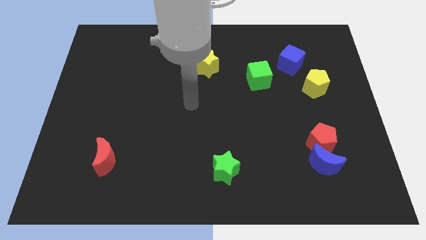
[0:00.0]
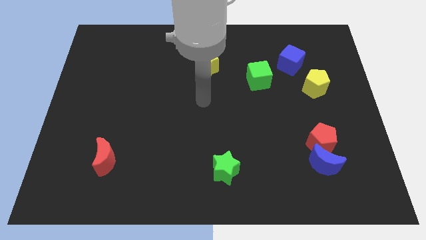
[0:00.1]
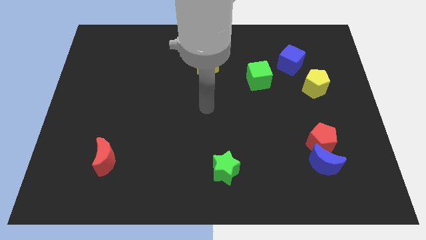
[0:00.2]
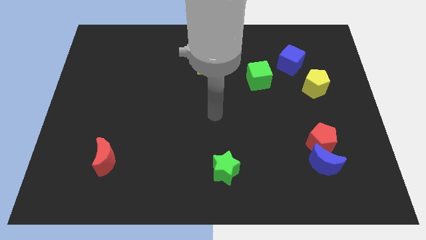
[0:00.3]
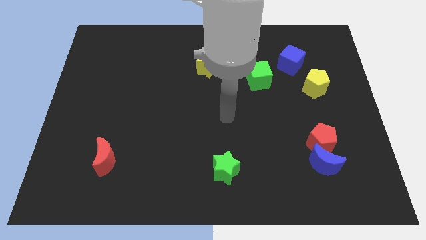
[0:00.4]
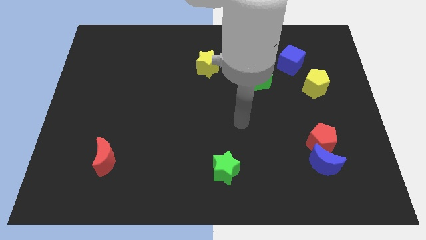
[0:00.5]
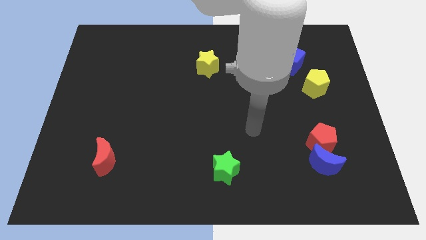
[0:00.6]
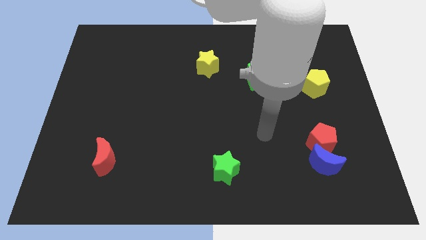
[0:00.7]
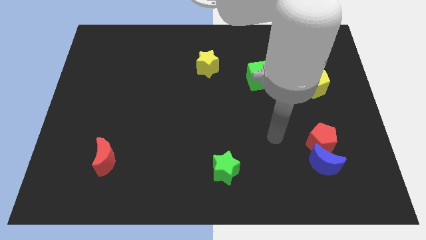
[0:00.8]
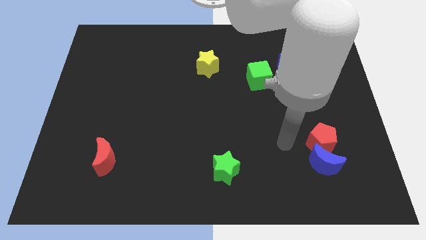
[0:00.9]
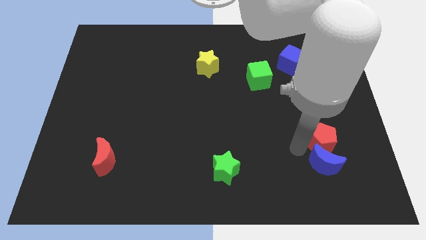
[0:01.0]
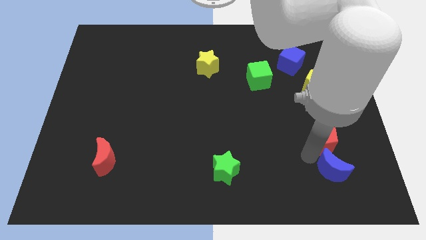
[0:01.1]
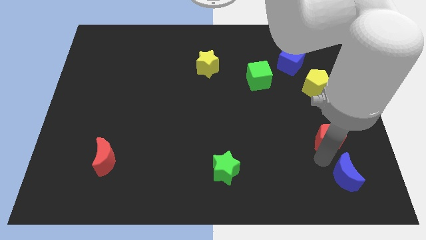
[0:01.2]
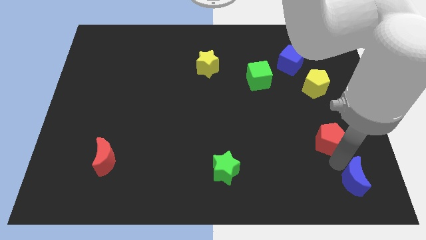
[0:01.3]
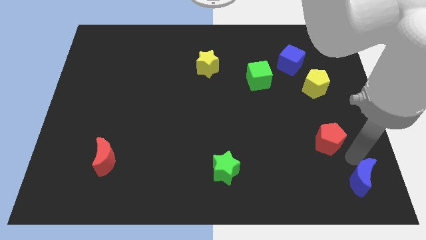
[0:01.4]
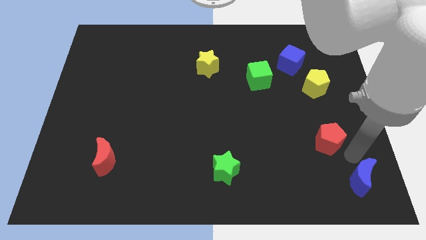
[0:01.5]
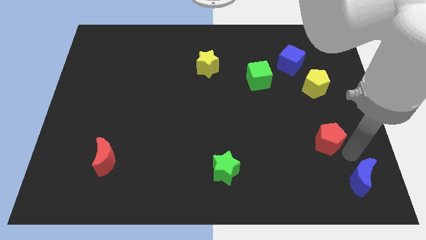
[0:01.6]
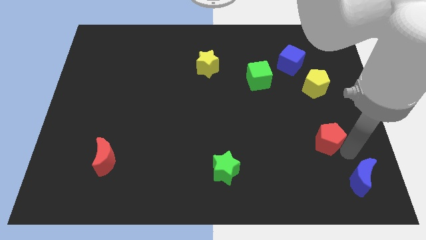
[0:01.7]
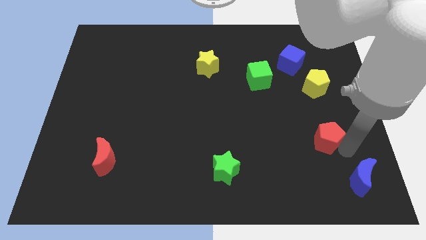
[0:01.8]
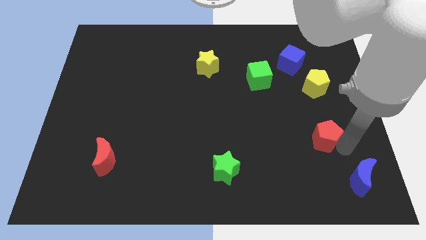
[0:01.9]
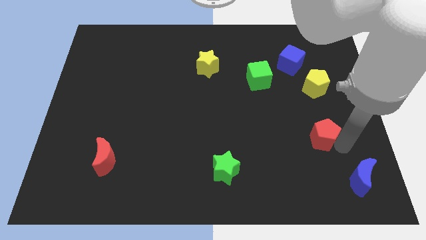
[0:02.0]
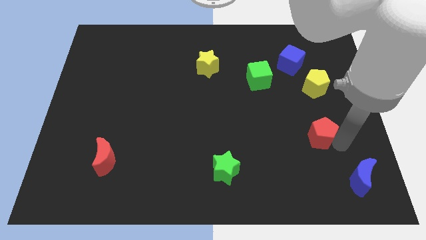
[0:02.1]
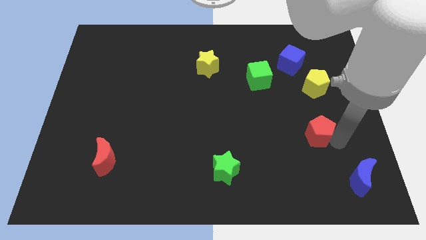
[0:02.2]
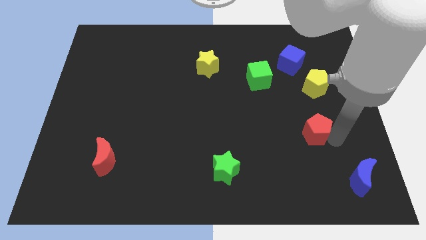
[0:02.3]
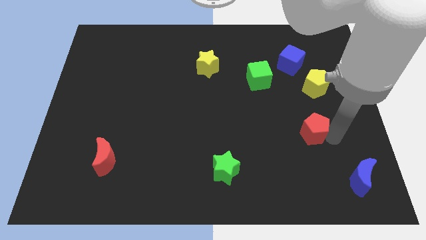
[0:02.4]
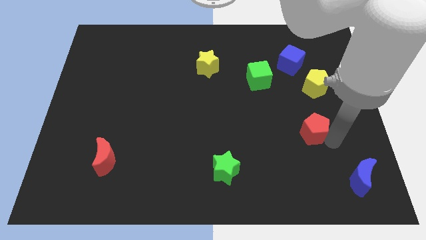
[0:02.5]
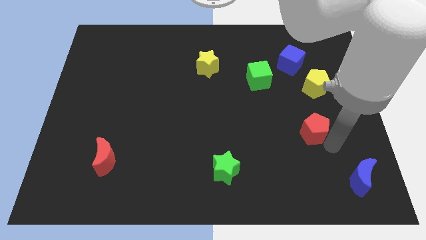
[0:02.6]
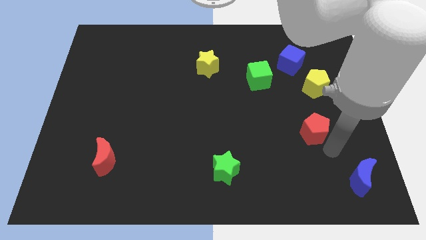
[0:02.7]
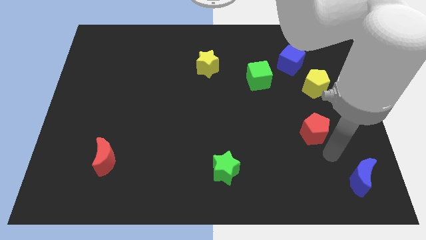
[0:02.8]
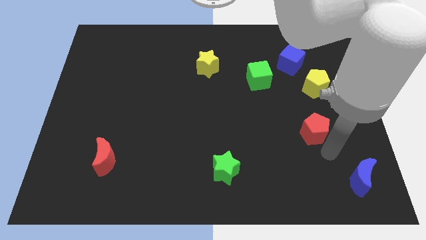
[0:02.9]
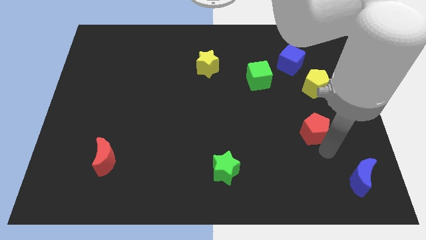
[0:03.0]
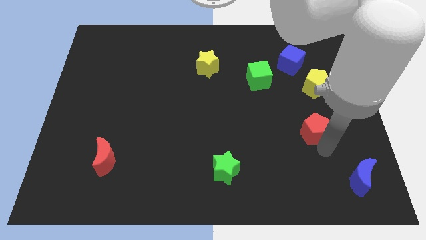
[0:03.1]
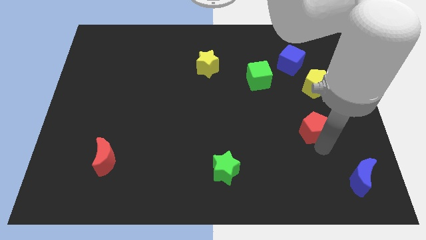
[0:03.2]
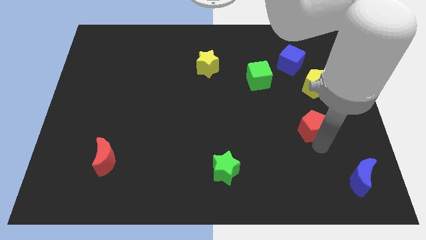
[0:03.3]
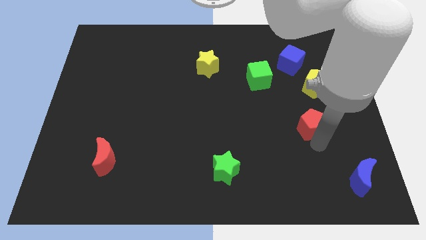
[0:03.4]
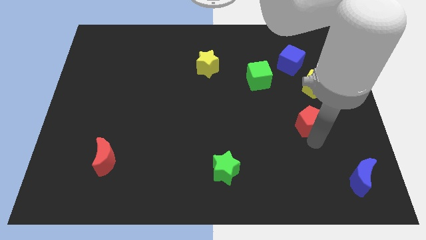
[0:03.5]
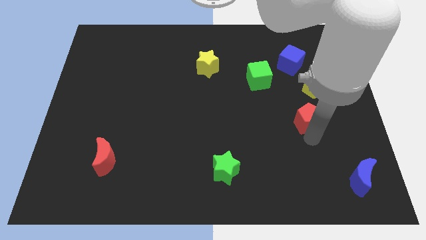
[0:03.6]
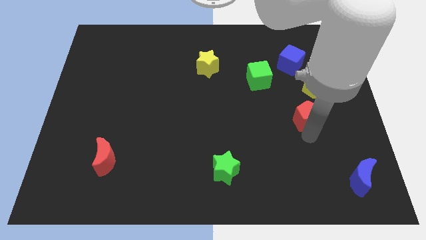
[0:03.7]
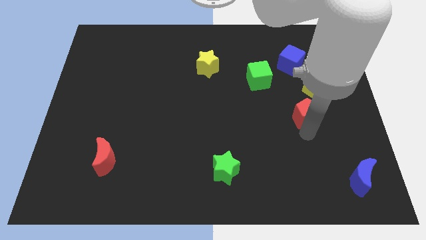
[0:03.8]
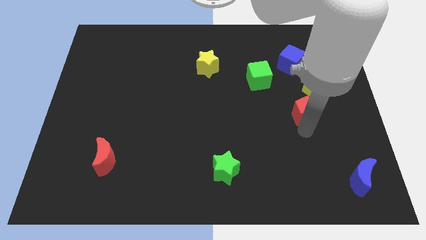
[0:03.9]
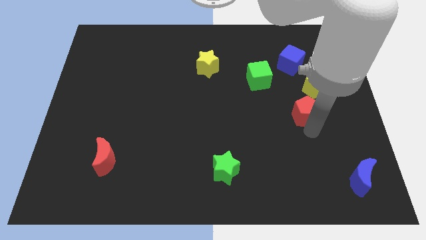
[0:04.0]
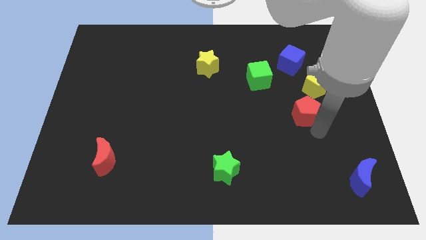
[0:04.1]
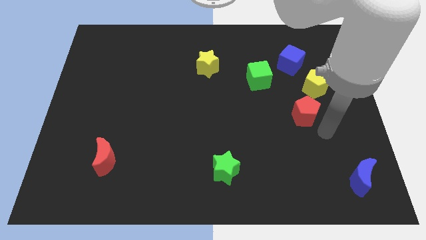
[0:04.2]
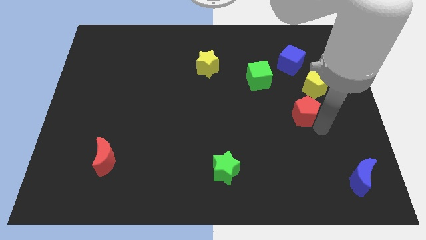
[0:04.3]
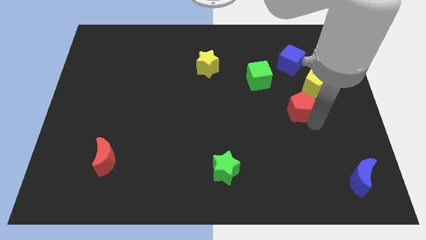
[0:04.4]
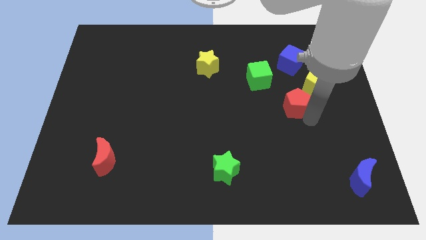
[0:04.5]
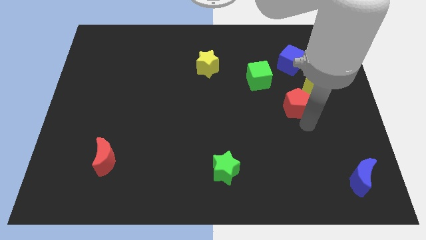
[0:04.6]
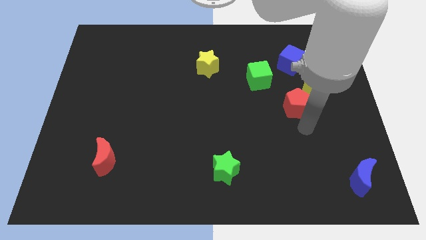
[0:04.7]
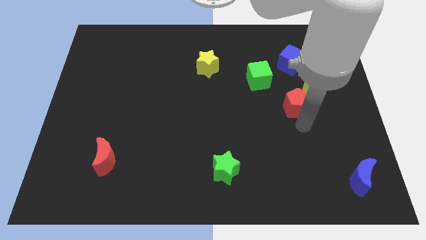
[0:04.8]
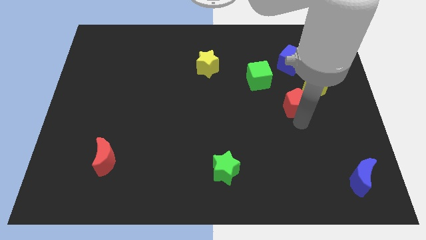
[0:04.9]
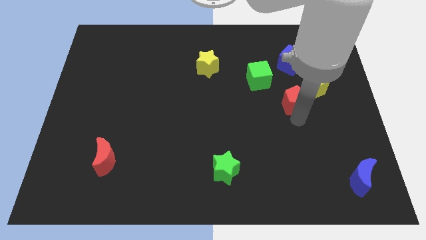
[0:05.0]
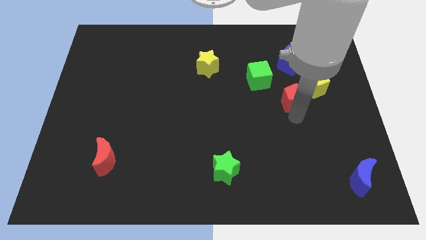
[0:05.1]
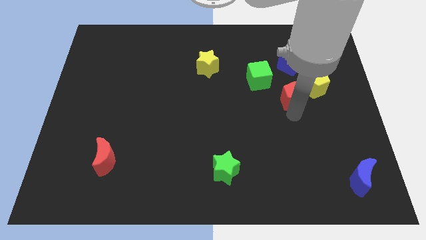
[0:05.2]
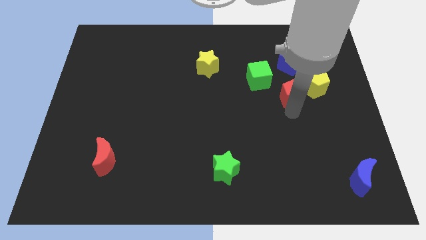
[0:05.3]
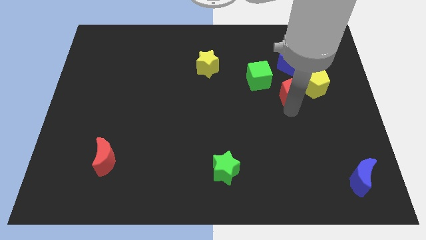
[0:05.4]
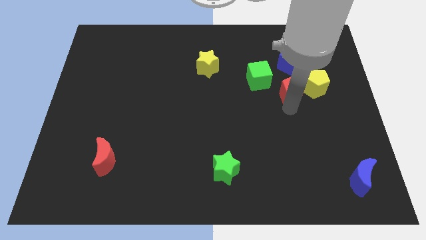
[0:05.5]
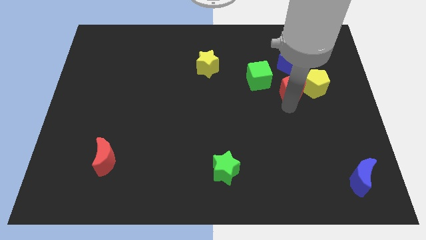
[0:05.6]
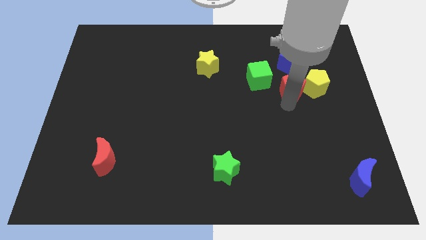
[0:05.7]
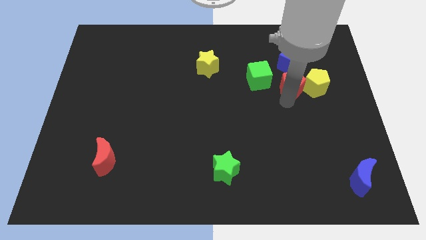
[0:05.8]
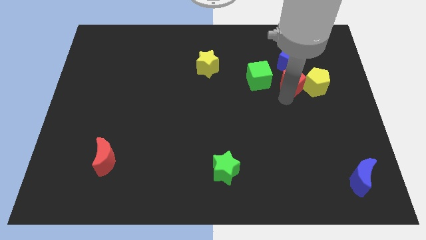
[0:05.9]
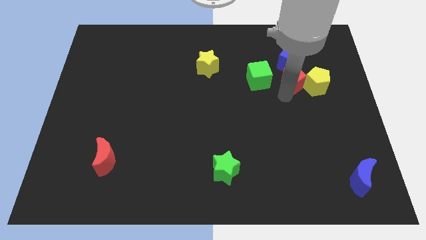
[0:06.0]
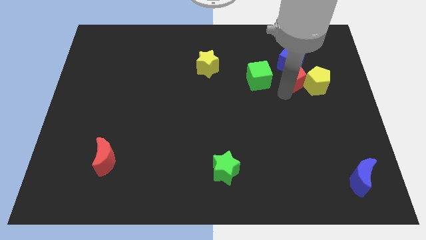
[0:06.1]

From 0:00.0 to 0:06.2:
push the red pentagon close to the blue cube

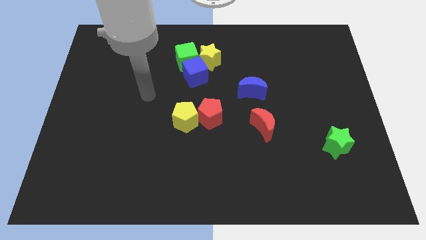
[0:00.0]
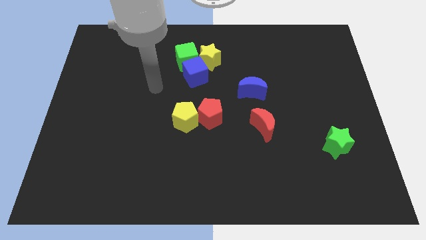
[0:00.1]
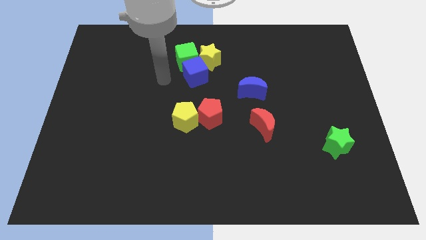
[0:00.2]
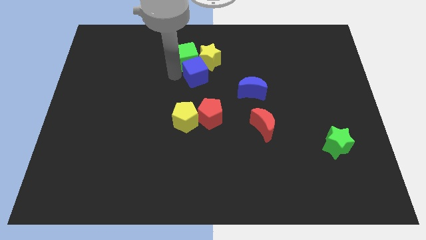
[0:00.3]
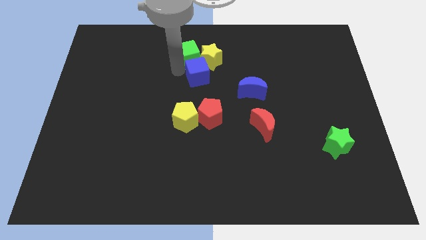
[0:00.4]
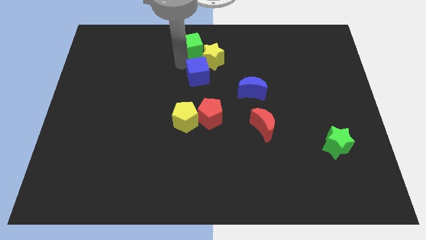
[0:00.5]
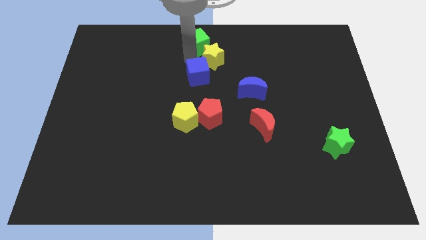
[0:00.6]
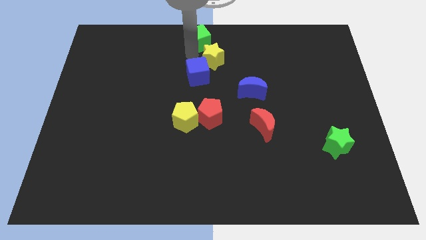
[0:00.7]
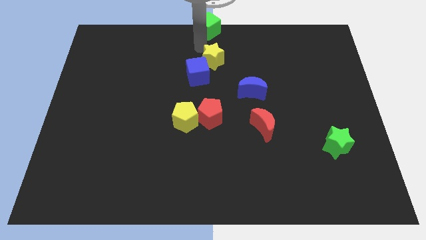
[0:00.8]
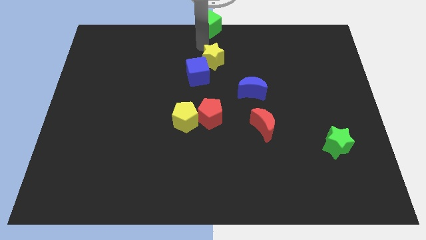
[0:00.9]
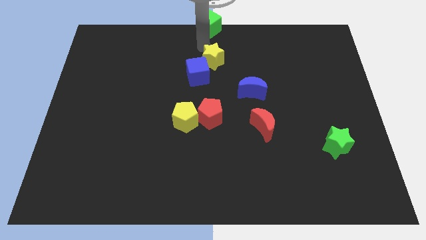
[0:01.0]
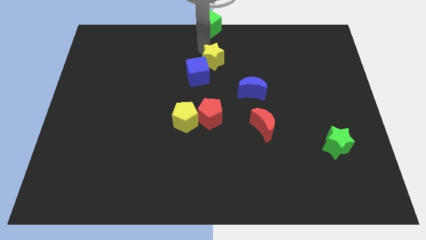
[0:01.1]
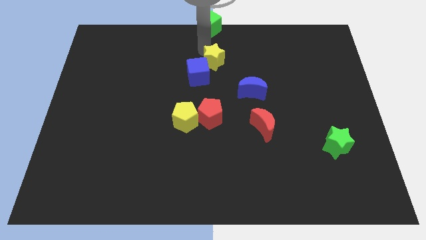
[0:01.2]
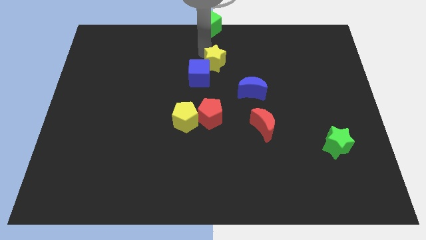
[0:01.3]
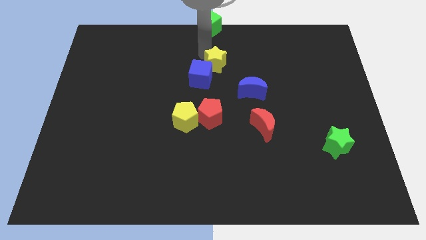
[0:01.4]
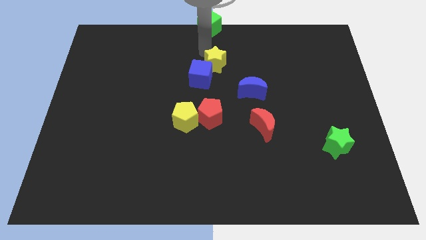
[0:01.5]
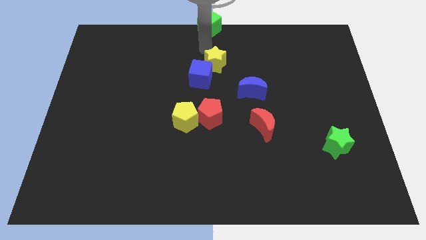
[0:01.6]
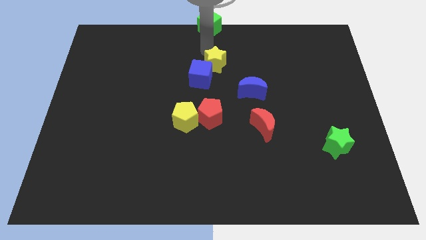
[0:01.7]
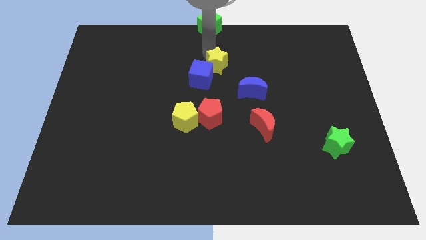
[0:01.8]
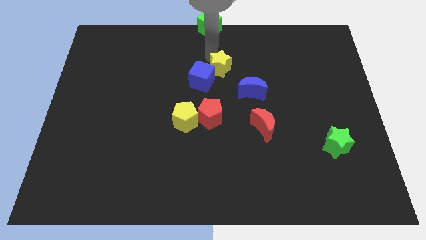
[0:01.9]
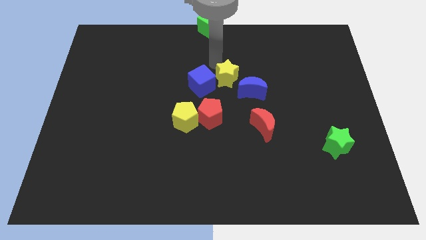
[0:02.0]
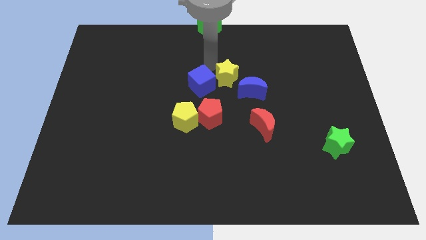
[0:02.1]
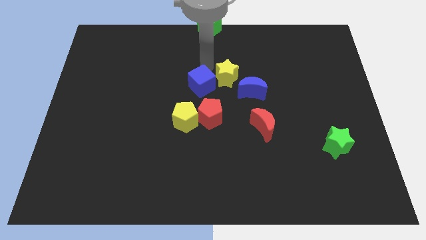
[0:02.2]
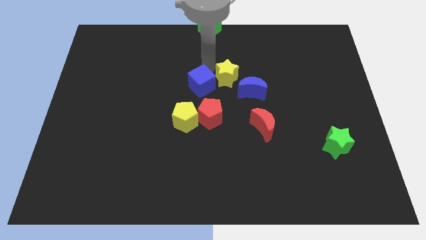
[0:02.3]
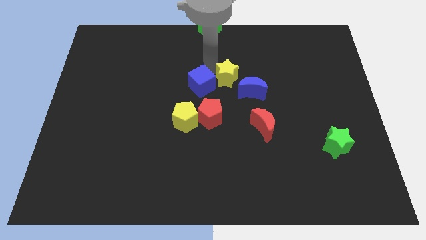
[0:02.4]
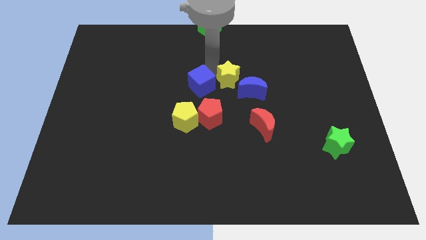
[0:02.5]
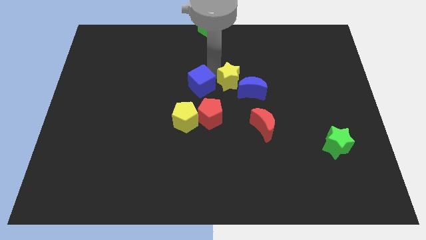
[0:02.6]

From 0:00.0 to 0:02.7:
put the yellow star towards the blue moon
